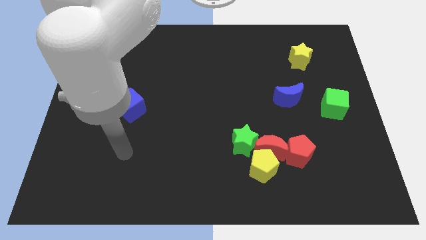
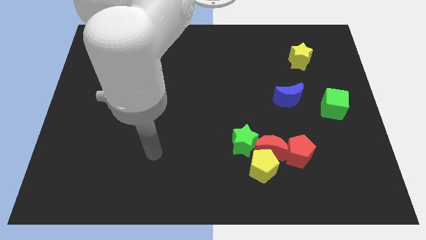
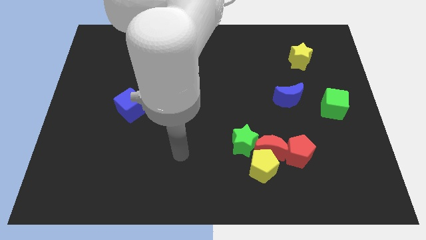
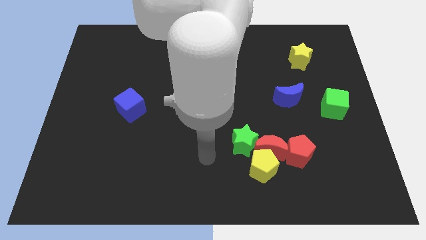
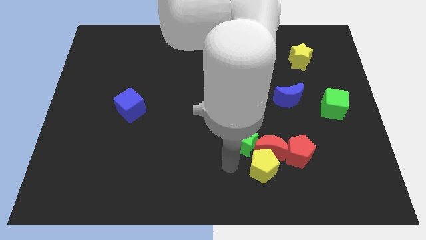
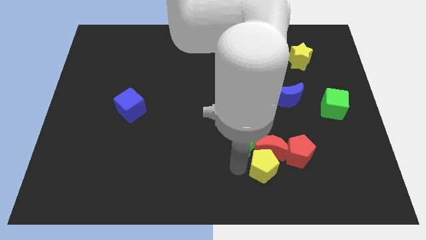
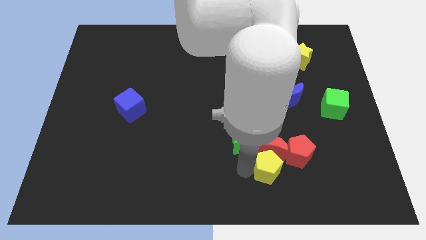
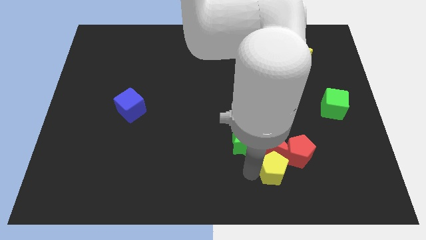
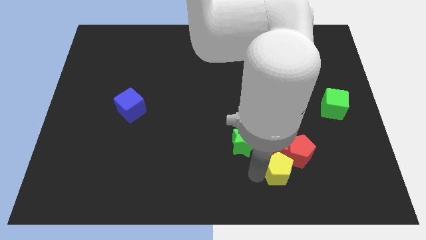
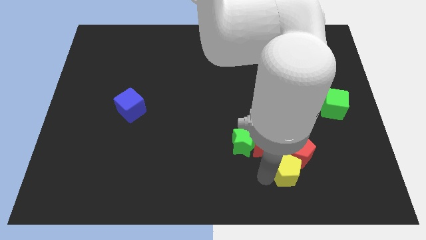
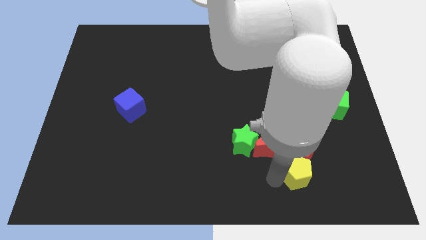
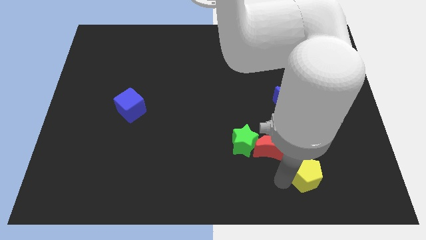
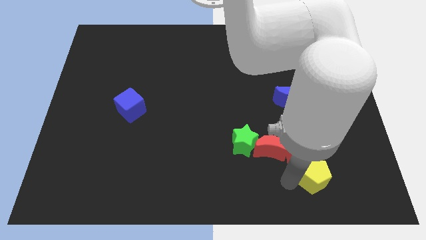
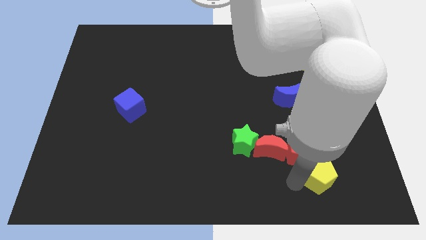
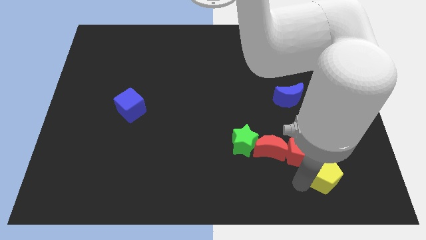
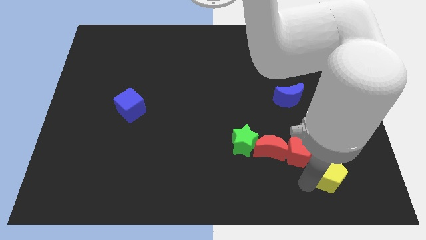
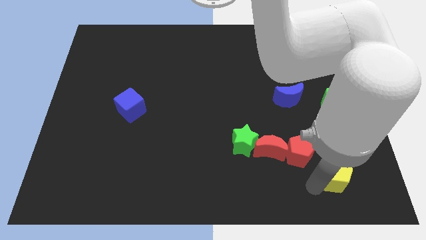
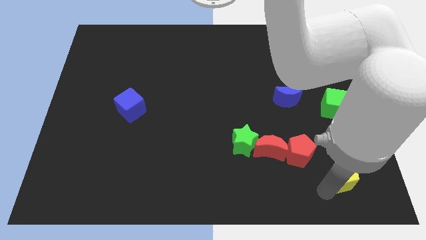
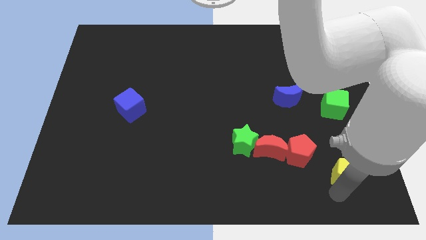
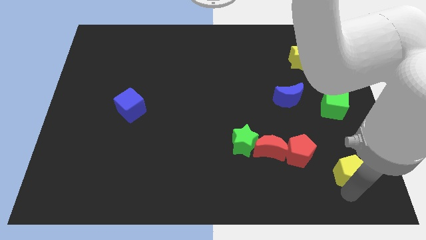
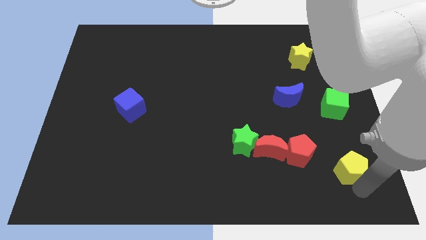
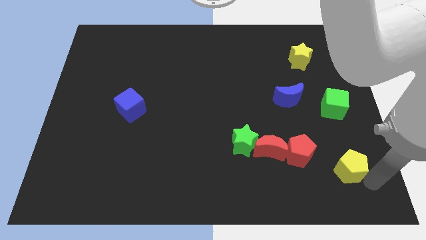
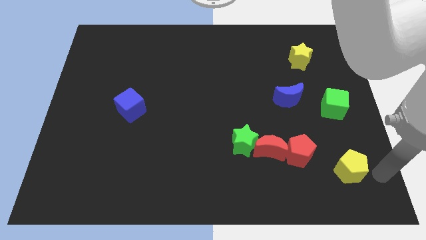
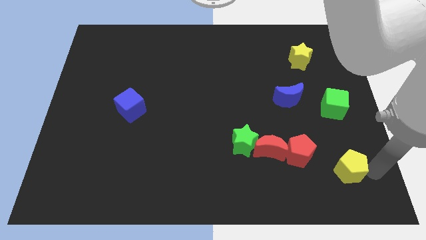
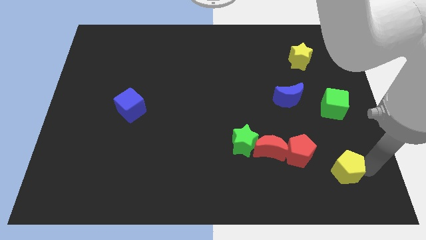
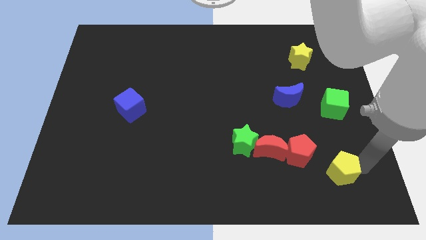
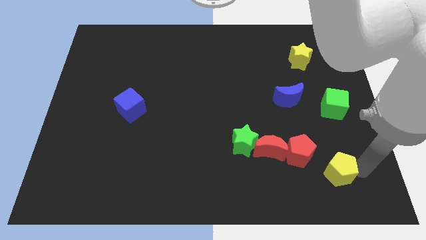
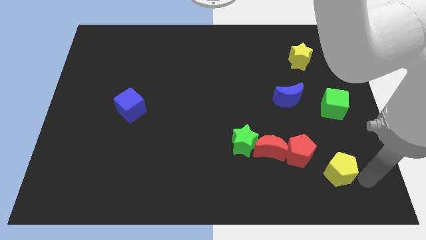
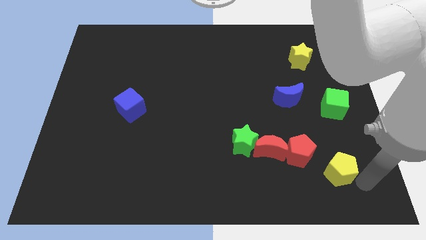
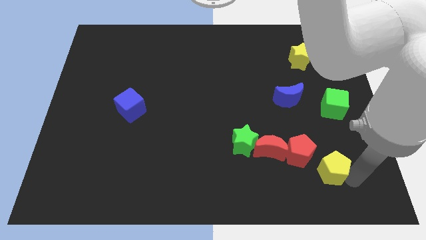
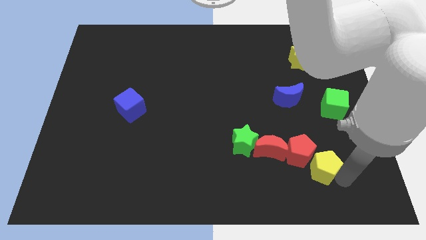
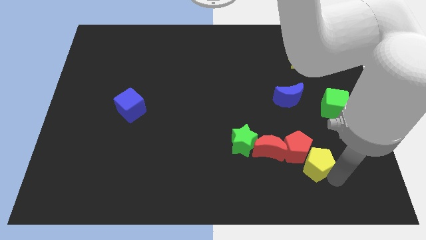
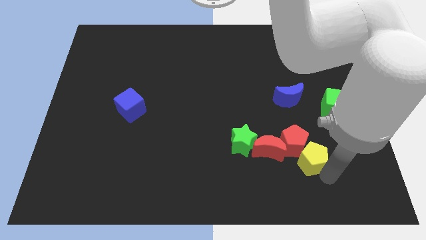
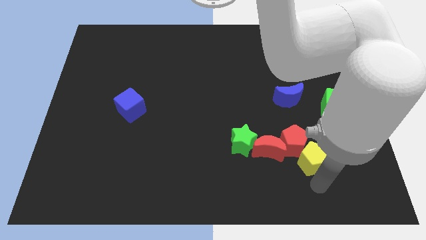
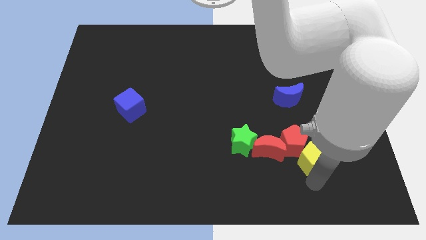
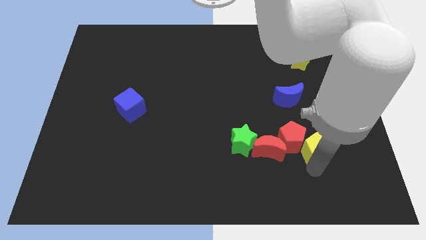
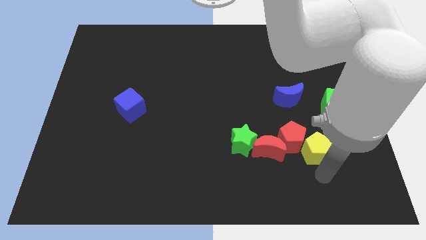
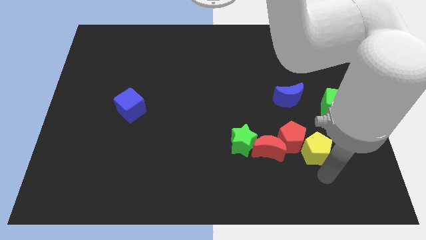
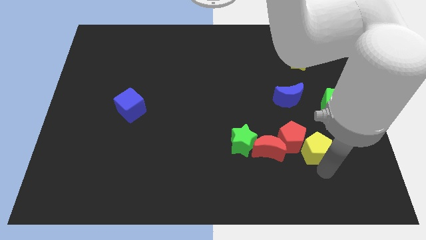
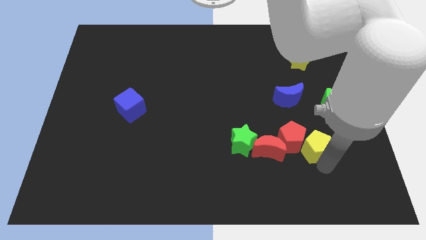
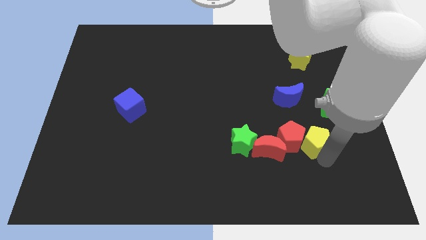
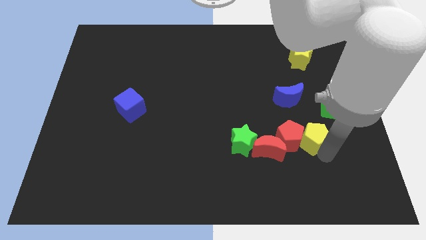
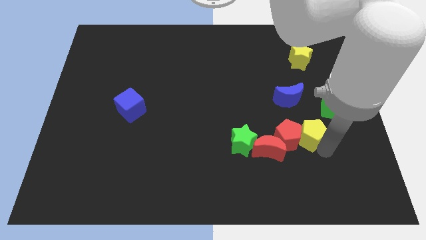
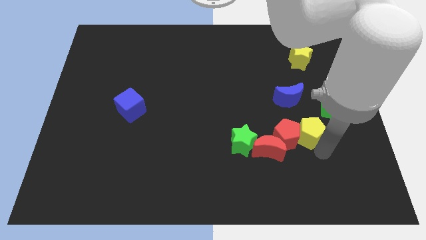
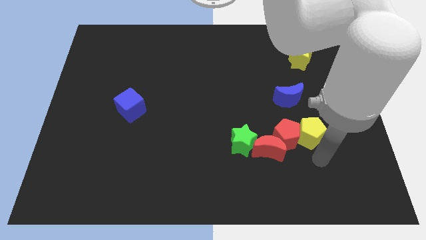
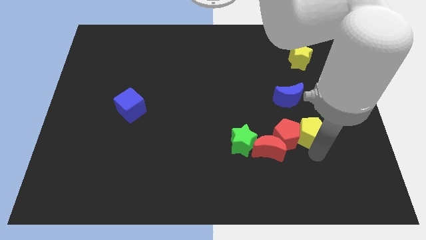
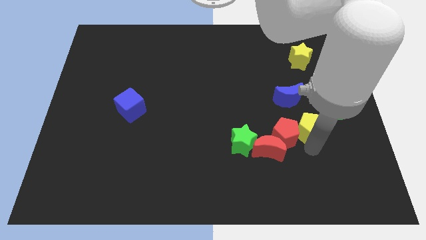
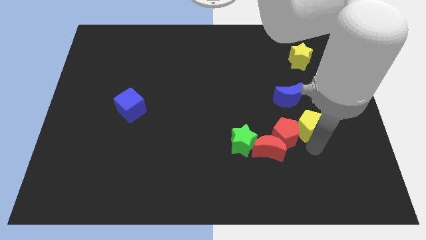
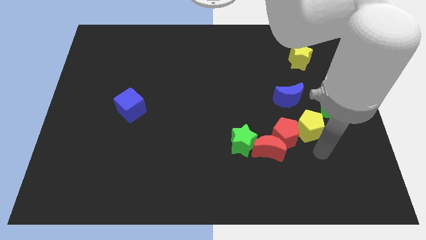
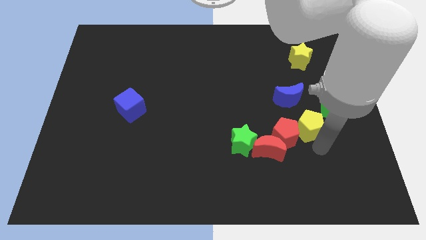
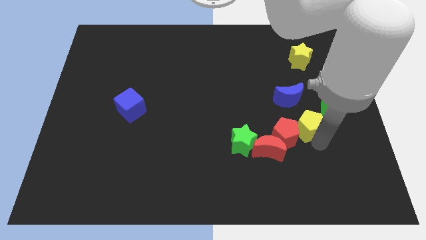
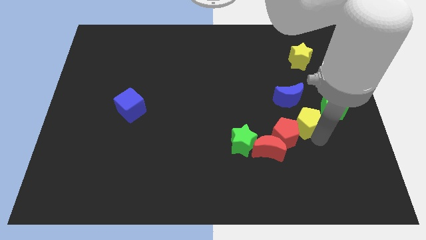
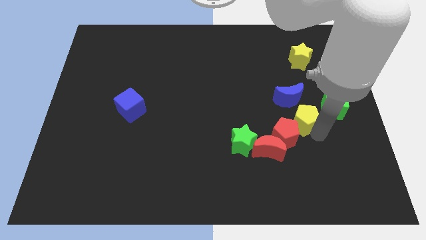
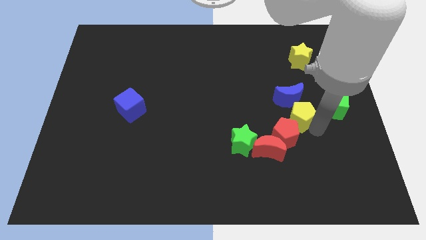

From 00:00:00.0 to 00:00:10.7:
move the yellow pentagon to the blue moon

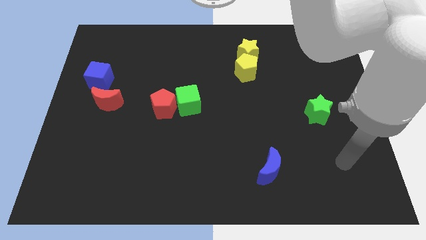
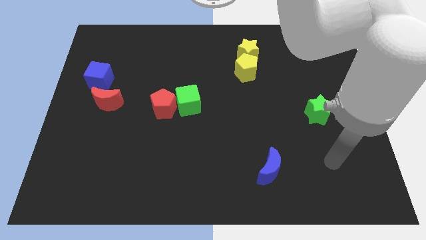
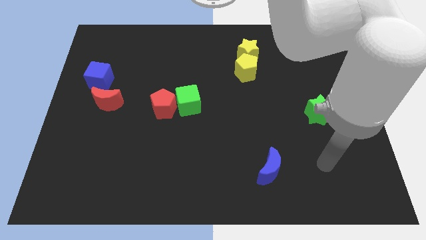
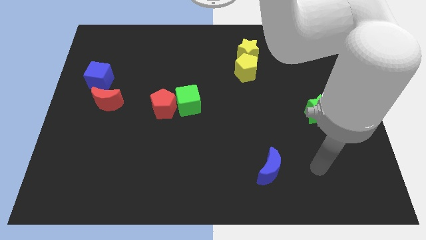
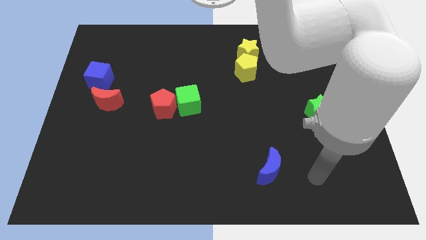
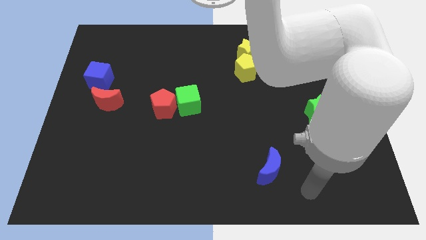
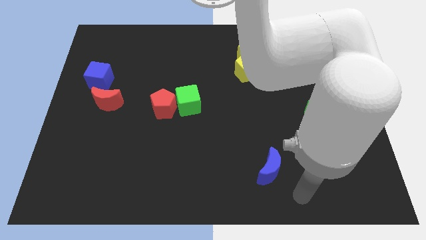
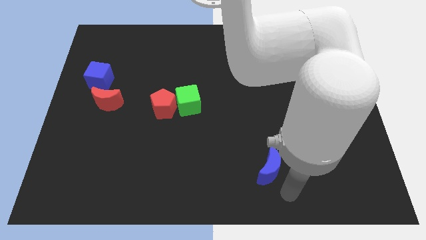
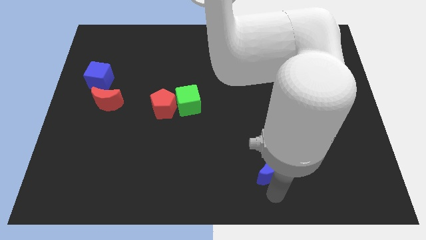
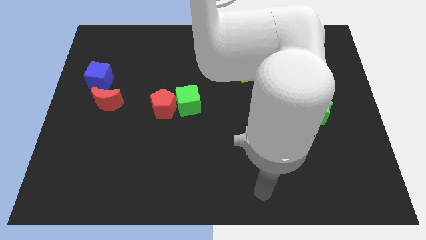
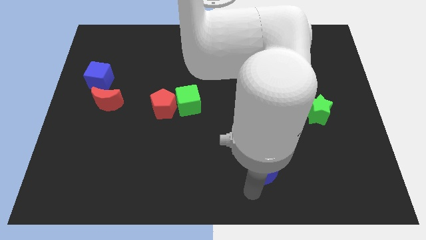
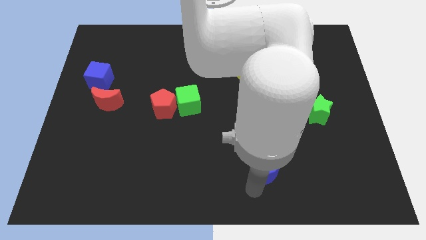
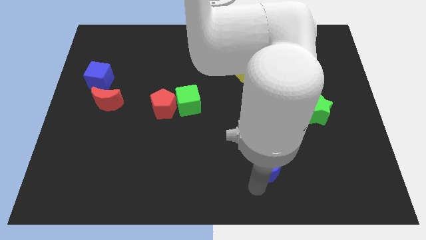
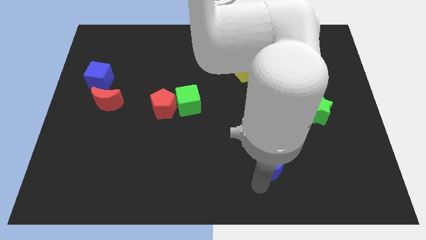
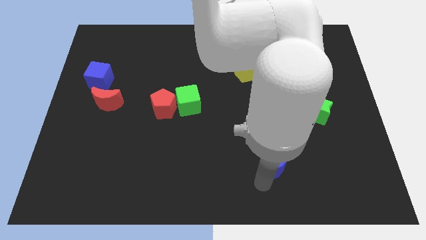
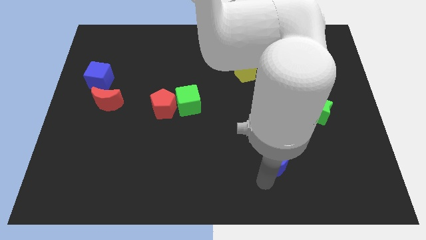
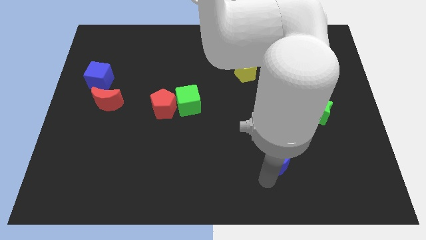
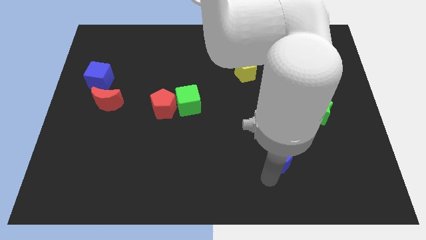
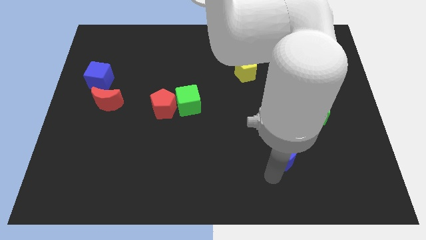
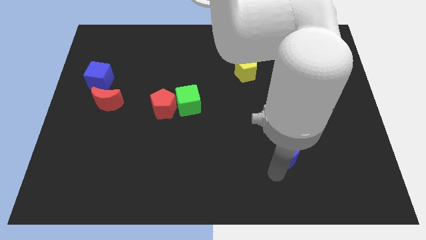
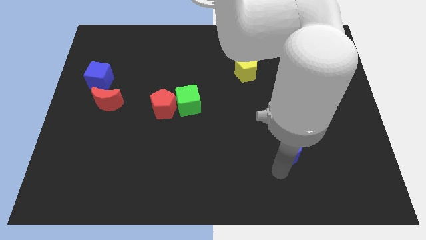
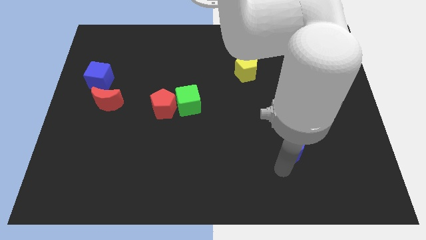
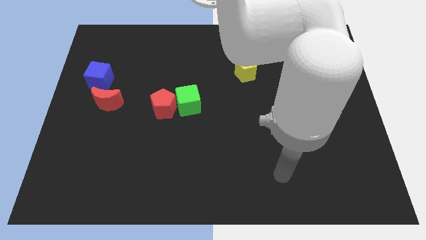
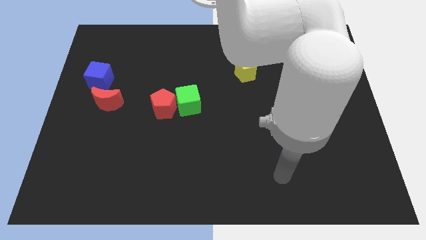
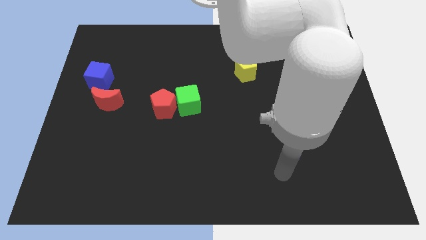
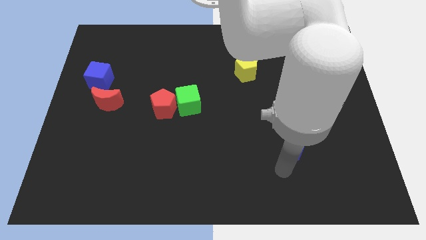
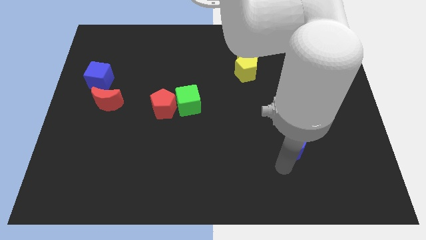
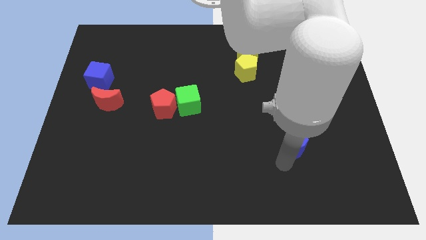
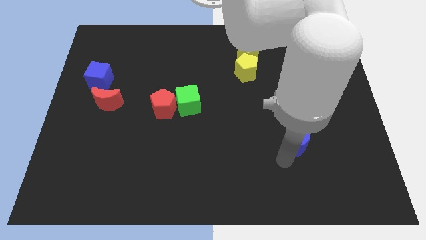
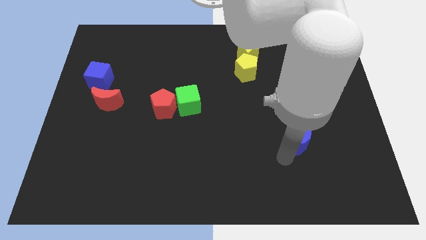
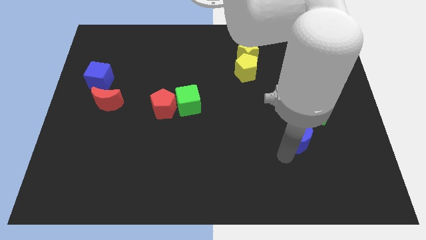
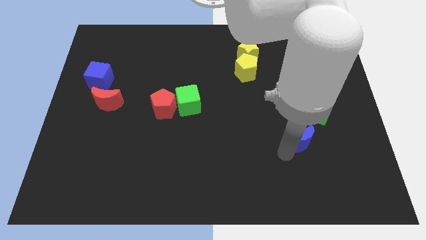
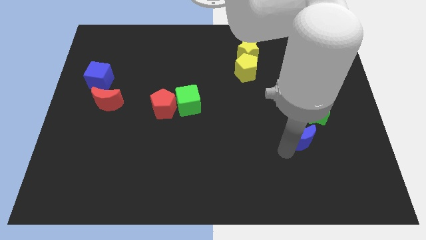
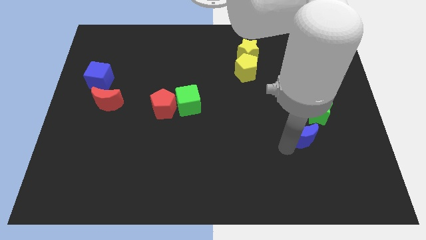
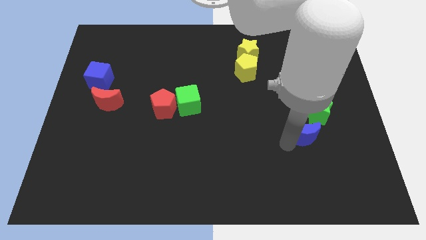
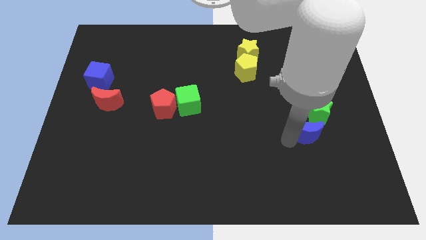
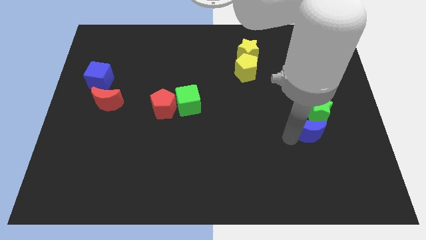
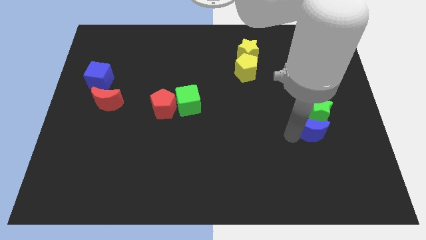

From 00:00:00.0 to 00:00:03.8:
put the blue moon towards the green star
